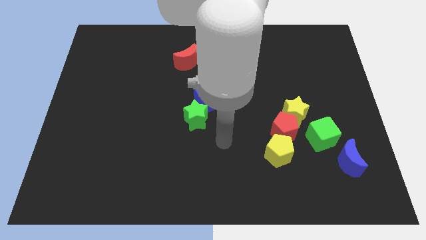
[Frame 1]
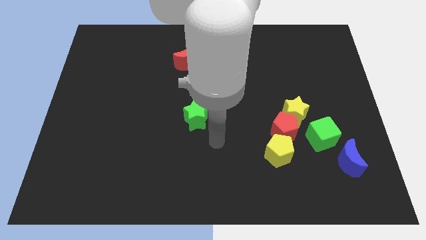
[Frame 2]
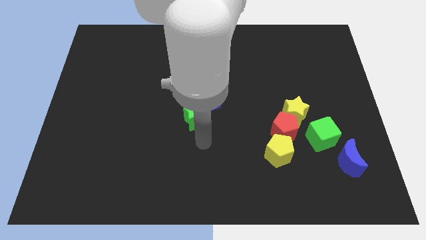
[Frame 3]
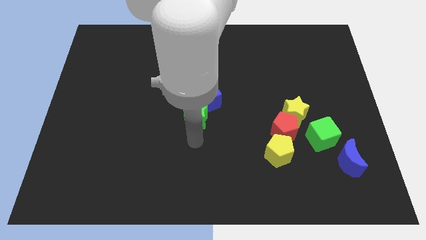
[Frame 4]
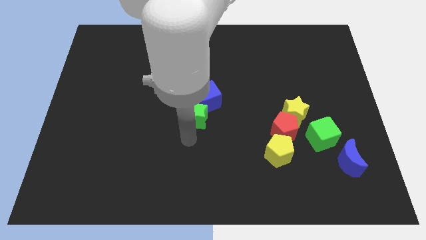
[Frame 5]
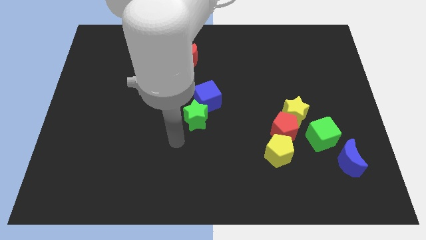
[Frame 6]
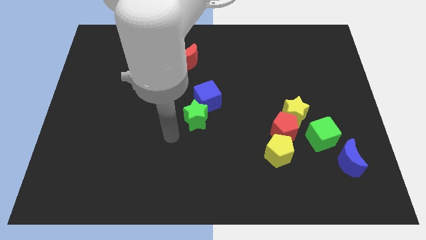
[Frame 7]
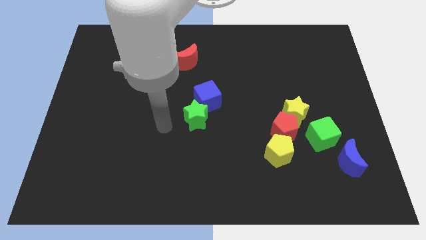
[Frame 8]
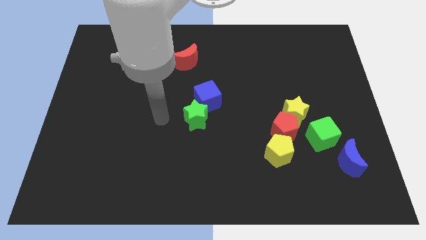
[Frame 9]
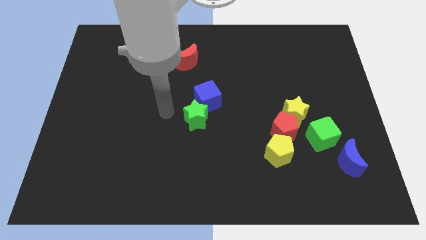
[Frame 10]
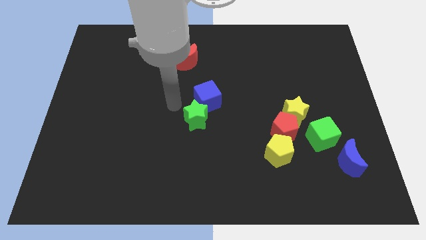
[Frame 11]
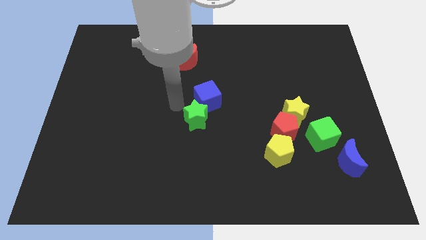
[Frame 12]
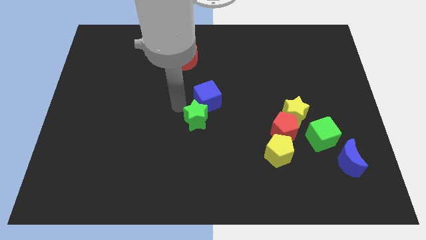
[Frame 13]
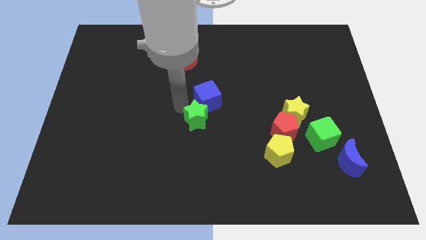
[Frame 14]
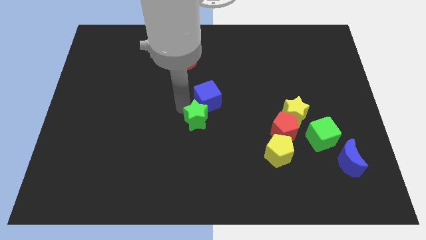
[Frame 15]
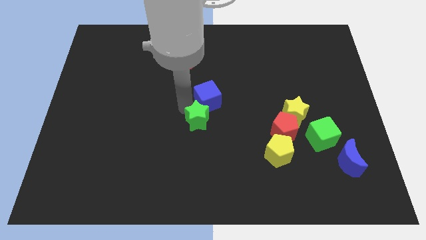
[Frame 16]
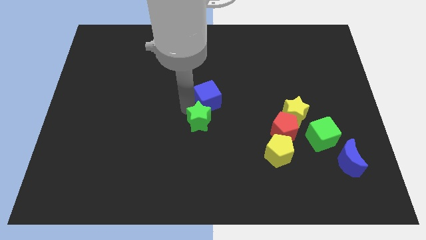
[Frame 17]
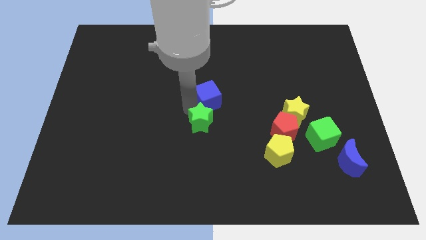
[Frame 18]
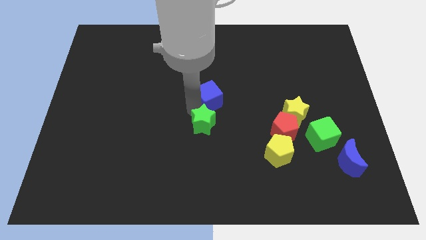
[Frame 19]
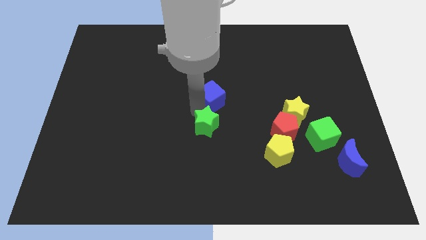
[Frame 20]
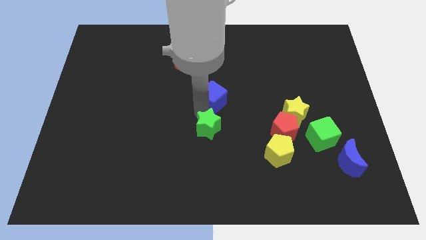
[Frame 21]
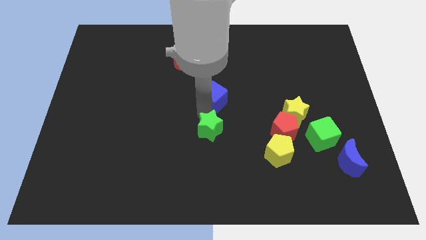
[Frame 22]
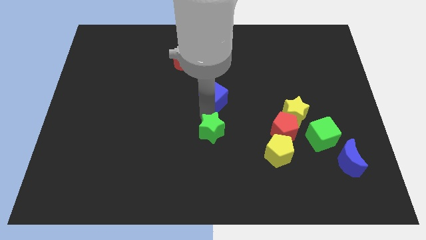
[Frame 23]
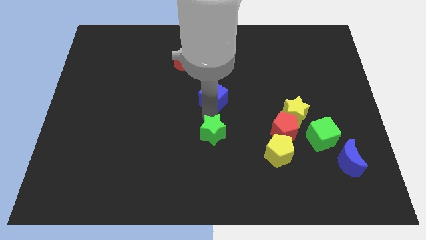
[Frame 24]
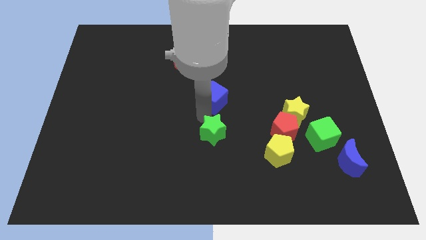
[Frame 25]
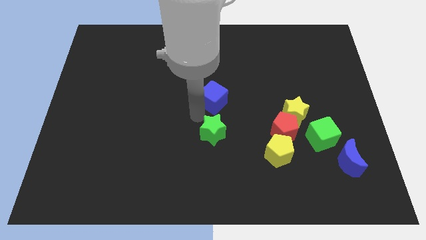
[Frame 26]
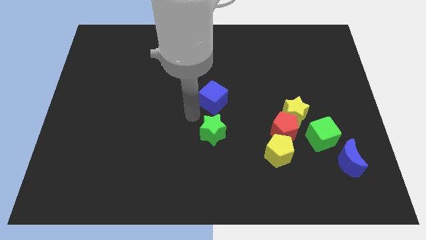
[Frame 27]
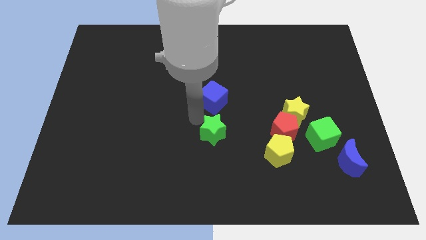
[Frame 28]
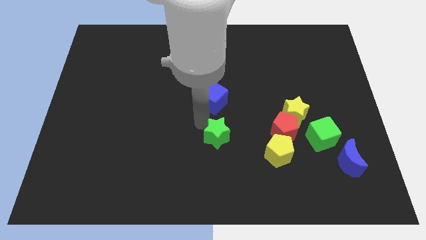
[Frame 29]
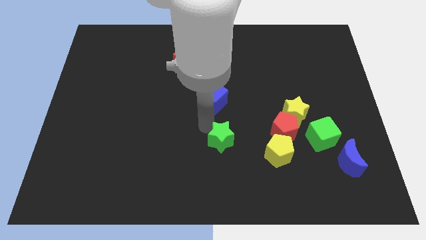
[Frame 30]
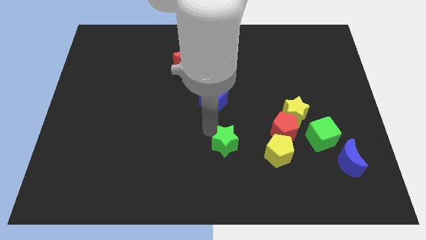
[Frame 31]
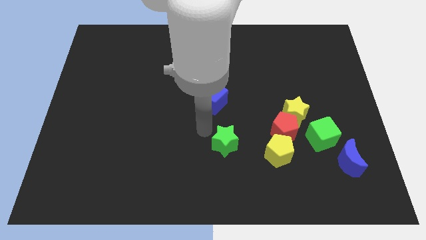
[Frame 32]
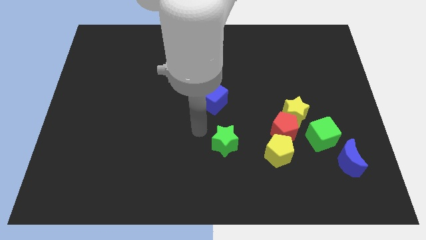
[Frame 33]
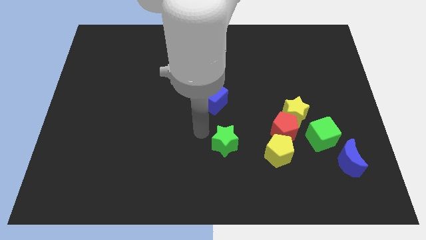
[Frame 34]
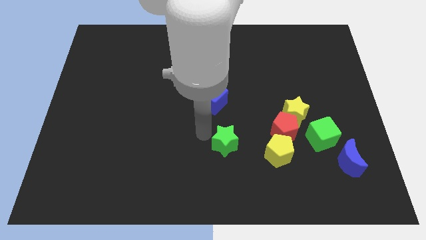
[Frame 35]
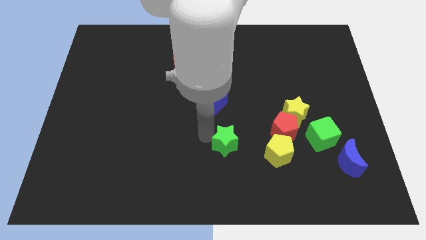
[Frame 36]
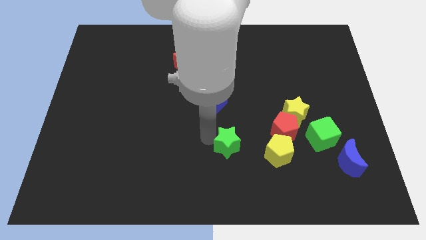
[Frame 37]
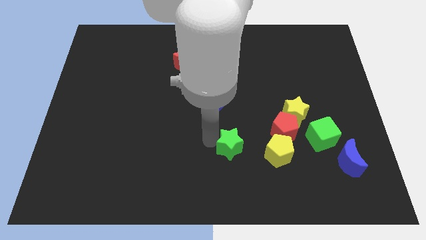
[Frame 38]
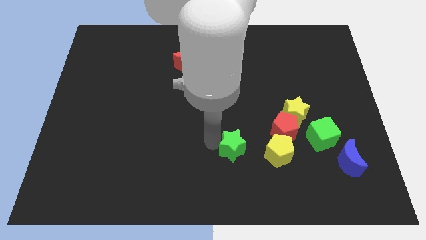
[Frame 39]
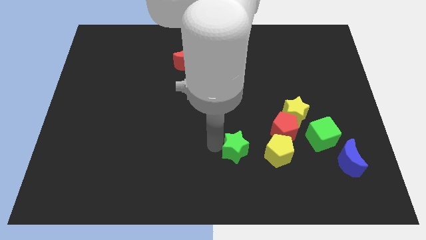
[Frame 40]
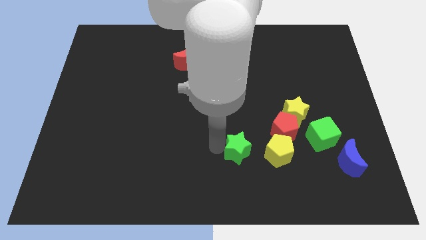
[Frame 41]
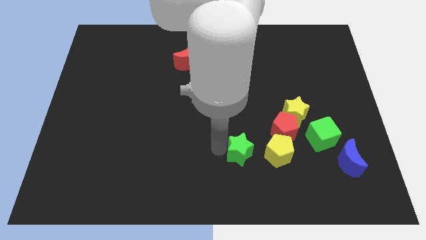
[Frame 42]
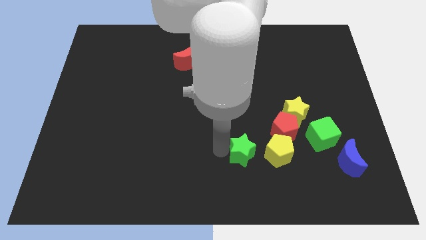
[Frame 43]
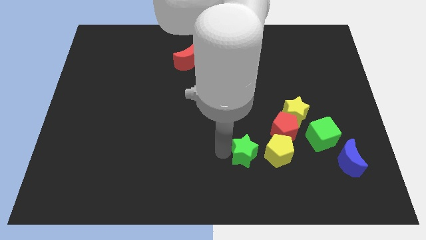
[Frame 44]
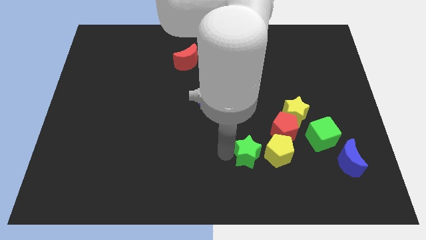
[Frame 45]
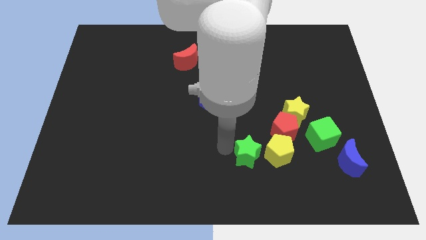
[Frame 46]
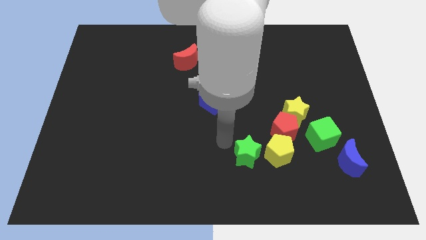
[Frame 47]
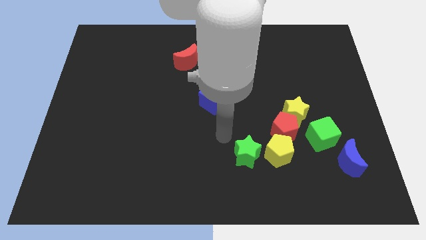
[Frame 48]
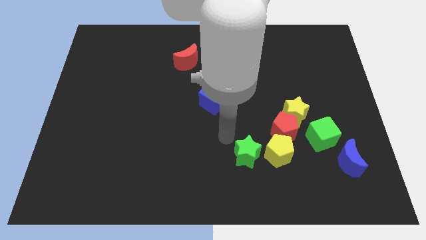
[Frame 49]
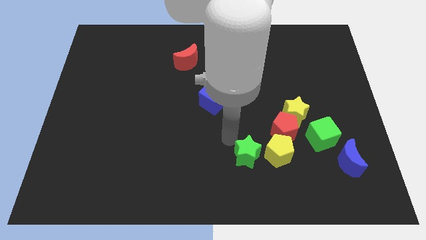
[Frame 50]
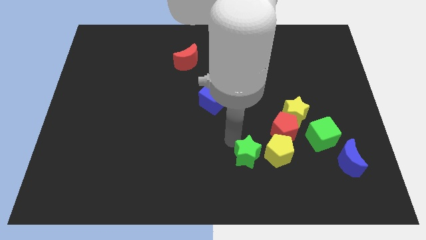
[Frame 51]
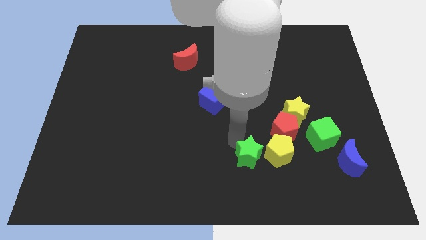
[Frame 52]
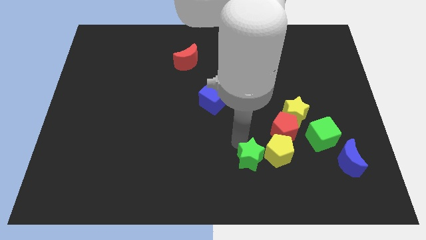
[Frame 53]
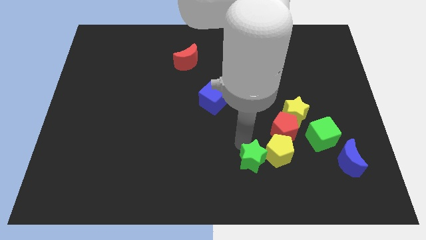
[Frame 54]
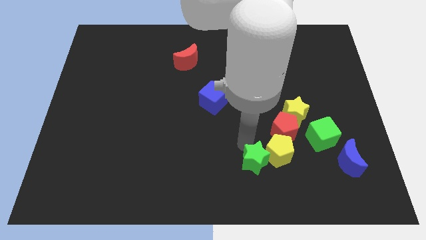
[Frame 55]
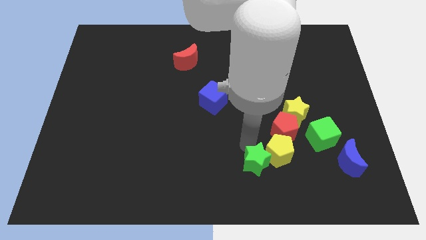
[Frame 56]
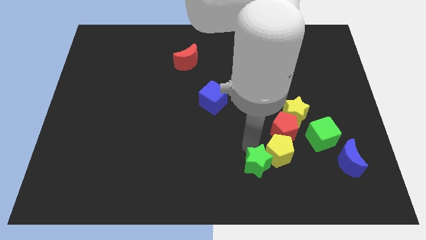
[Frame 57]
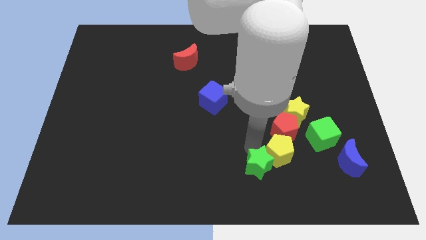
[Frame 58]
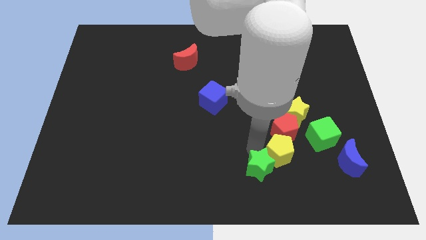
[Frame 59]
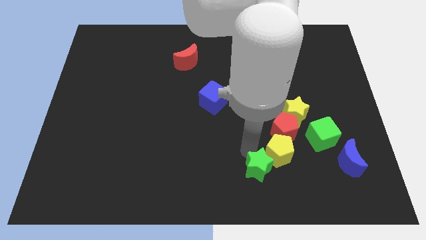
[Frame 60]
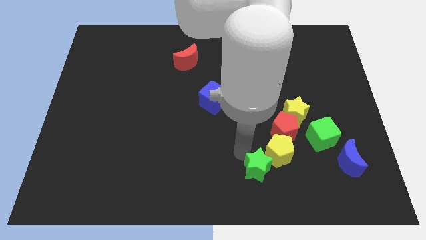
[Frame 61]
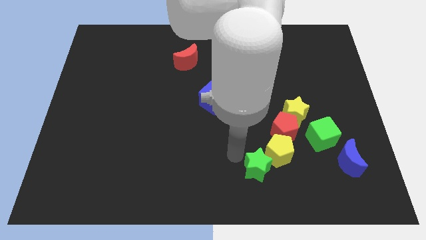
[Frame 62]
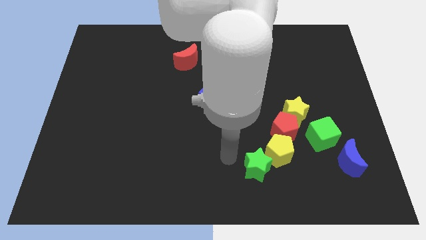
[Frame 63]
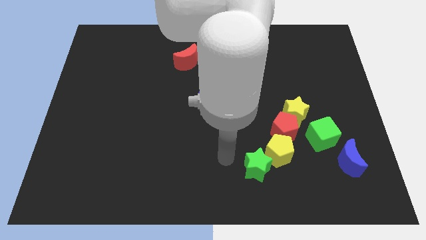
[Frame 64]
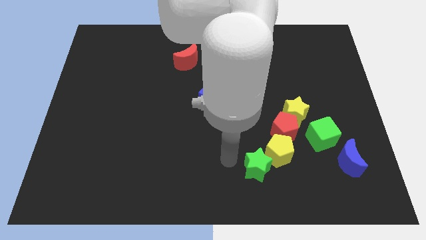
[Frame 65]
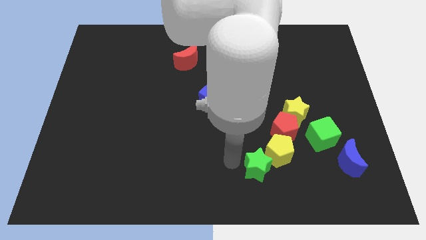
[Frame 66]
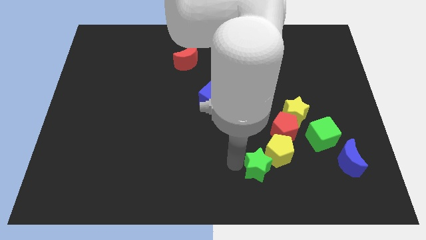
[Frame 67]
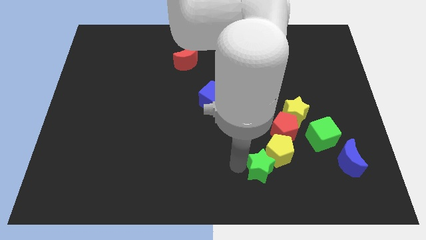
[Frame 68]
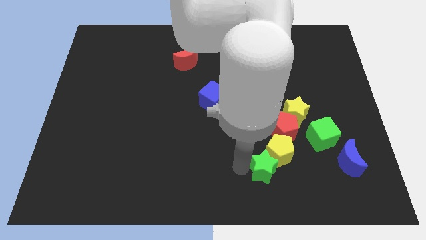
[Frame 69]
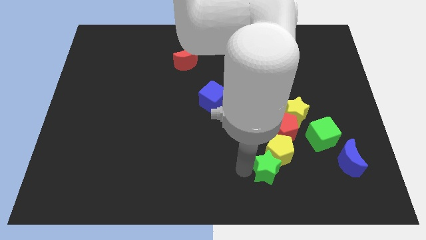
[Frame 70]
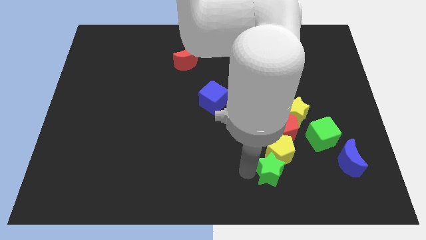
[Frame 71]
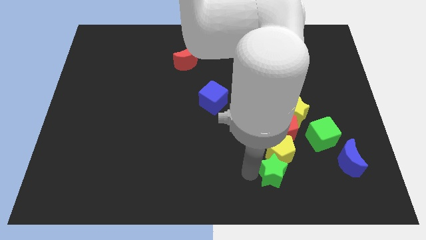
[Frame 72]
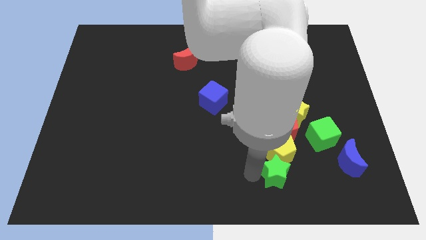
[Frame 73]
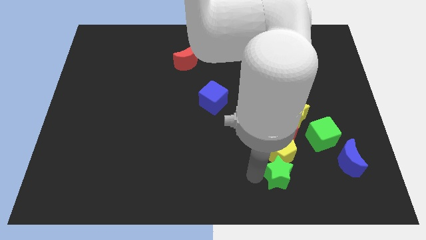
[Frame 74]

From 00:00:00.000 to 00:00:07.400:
move the green star to the bottom right side of the yellow pentagon
